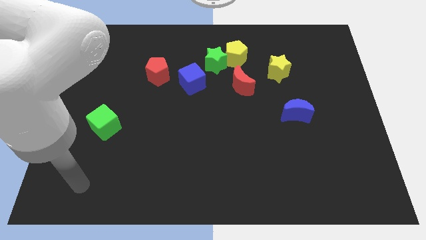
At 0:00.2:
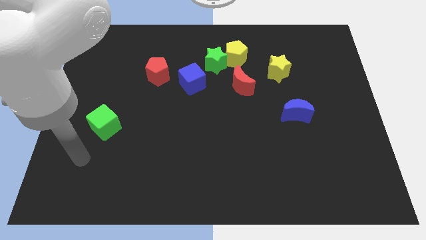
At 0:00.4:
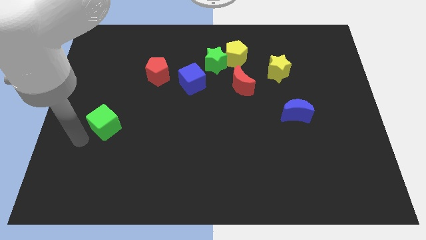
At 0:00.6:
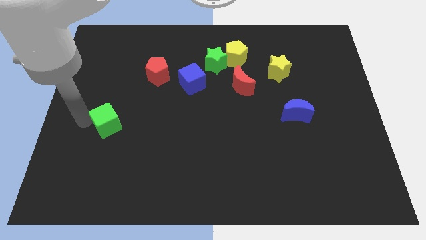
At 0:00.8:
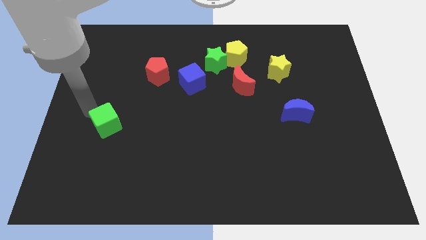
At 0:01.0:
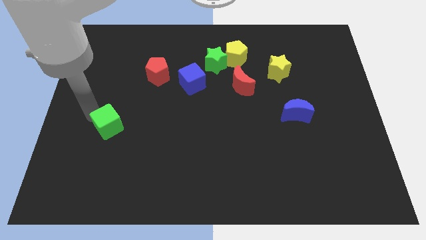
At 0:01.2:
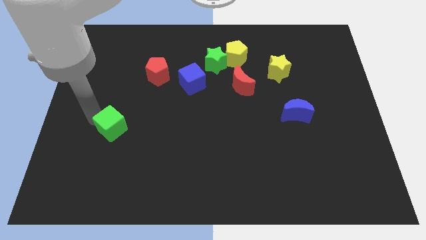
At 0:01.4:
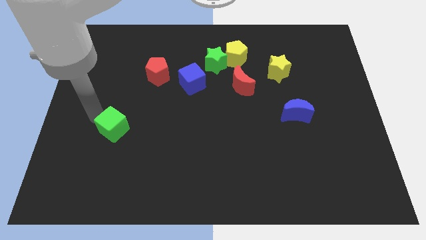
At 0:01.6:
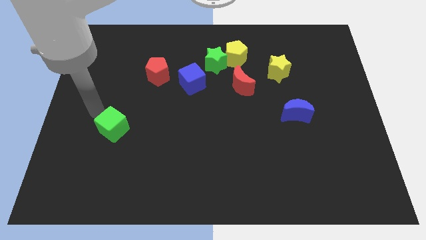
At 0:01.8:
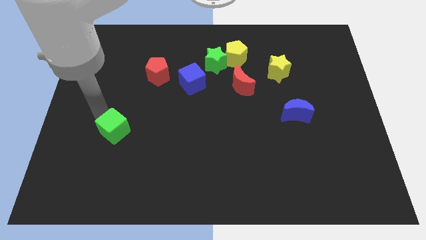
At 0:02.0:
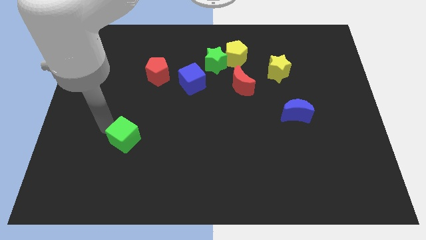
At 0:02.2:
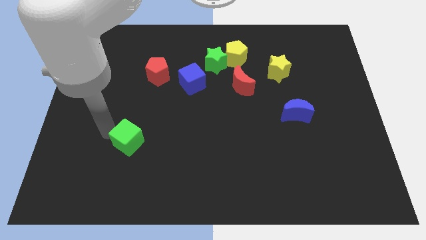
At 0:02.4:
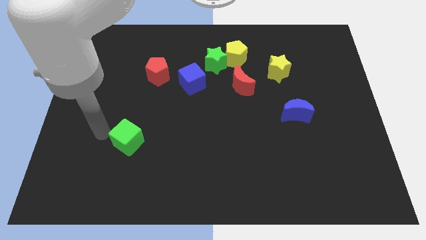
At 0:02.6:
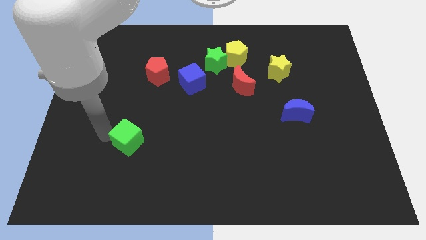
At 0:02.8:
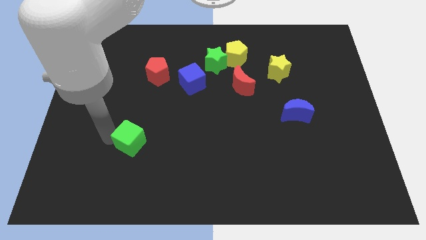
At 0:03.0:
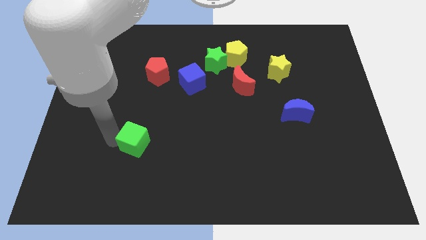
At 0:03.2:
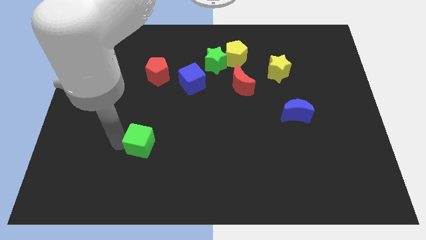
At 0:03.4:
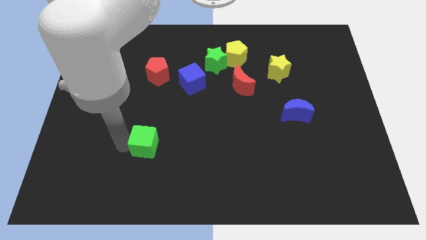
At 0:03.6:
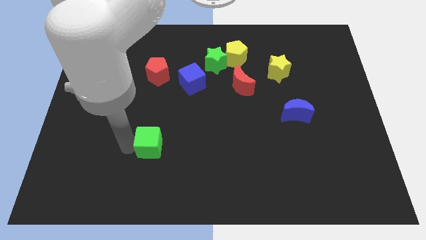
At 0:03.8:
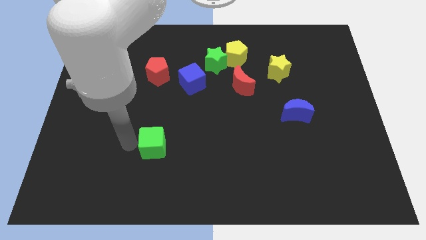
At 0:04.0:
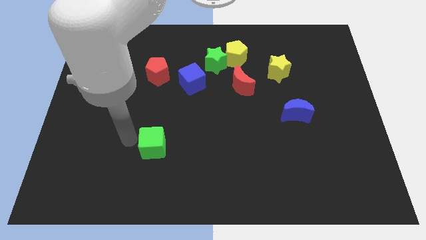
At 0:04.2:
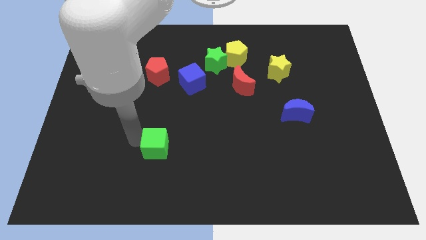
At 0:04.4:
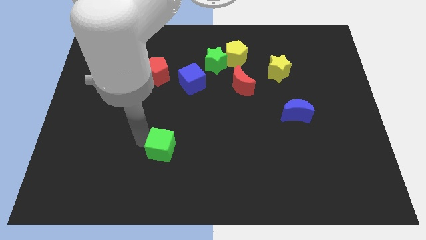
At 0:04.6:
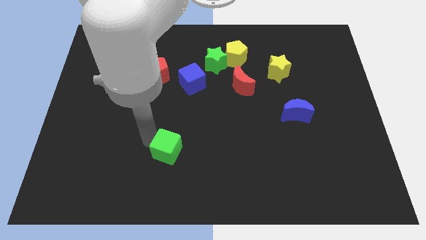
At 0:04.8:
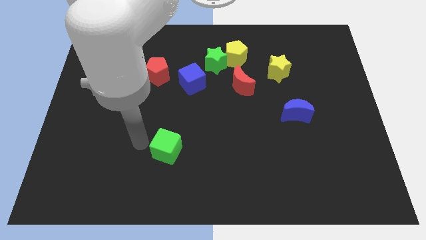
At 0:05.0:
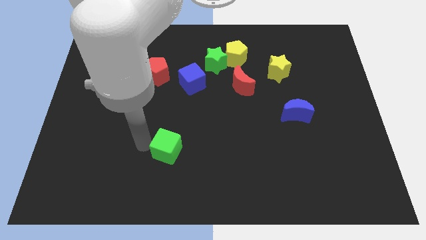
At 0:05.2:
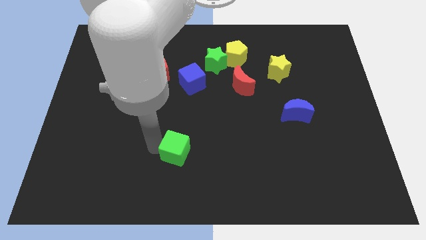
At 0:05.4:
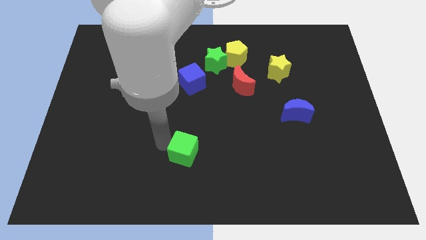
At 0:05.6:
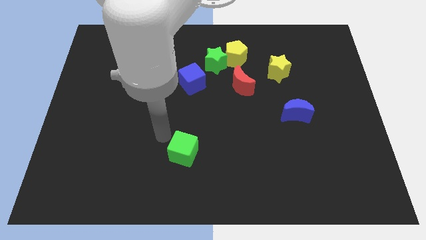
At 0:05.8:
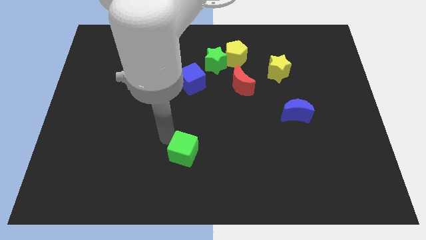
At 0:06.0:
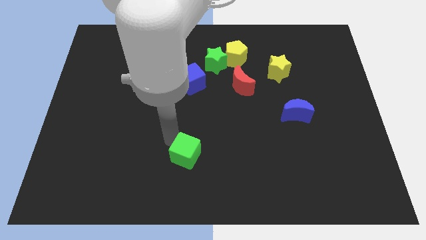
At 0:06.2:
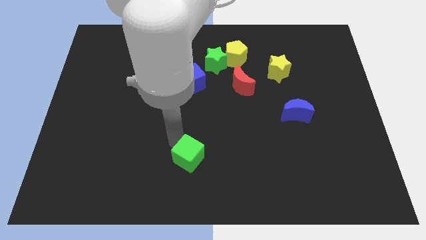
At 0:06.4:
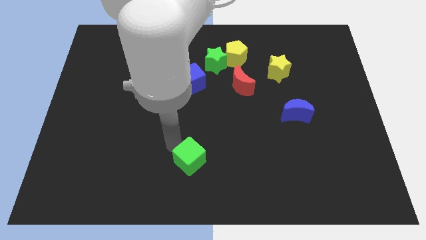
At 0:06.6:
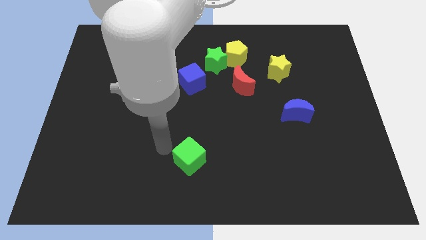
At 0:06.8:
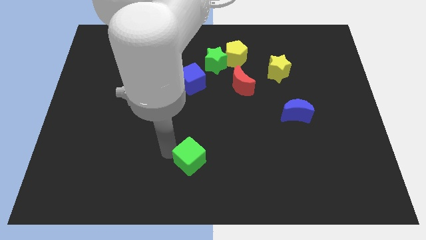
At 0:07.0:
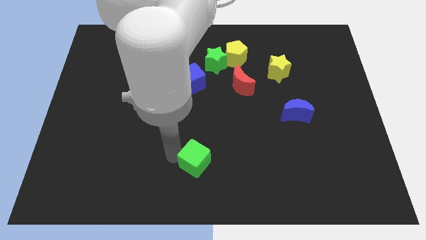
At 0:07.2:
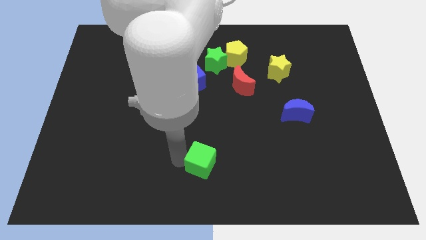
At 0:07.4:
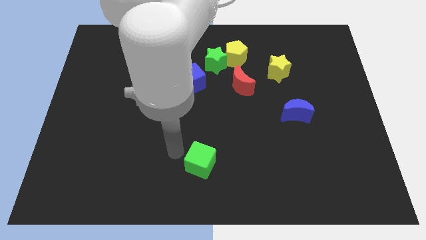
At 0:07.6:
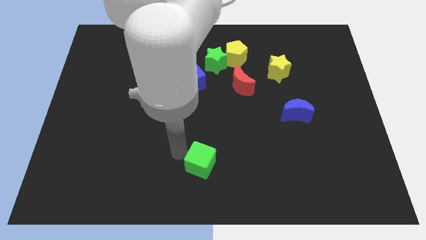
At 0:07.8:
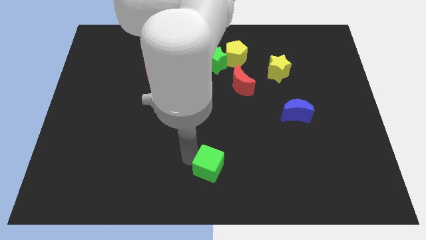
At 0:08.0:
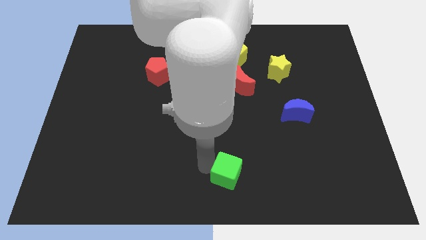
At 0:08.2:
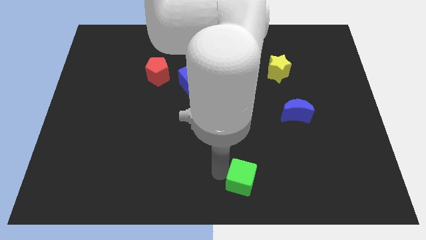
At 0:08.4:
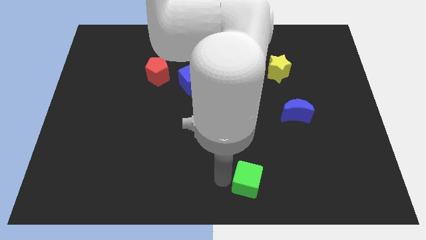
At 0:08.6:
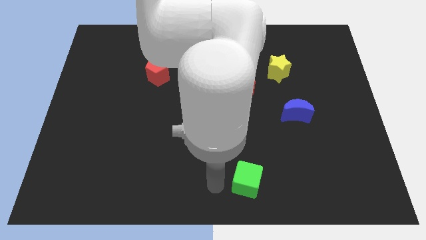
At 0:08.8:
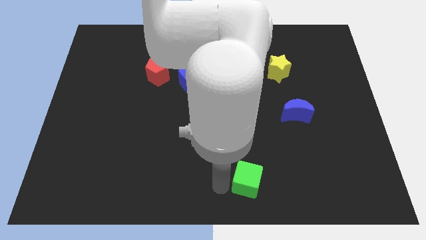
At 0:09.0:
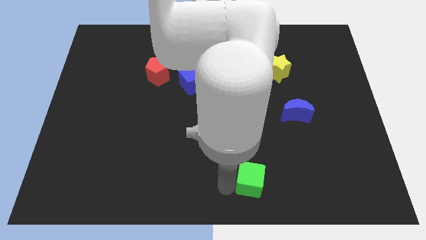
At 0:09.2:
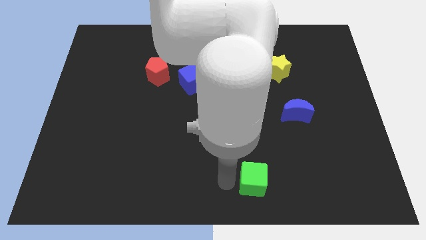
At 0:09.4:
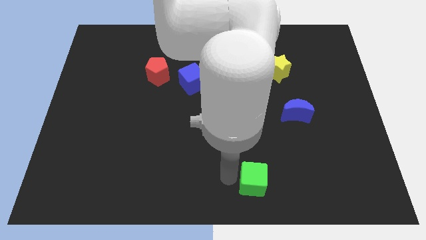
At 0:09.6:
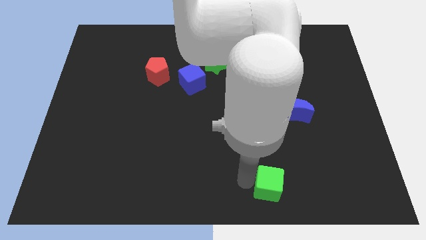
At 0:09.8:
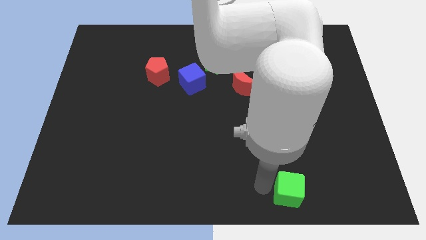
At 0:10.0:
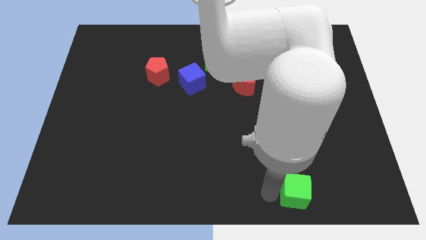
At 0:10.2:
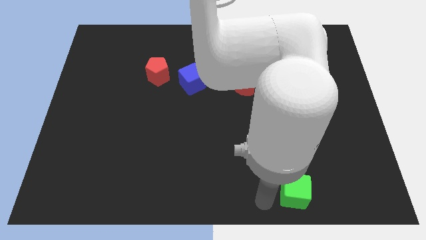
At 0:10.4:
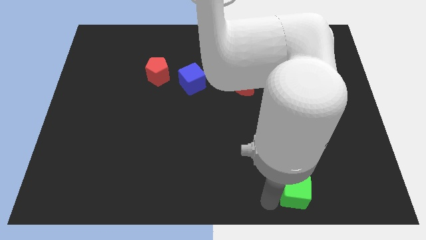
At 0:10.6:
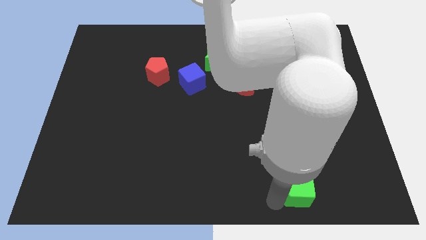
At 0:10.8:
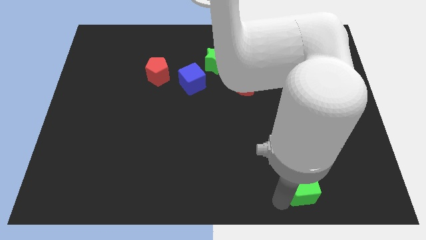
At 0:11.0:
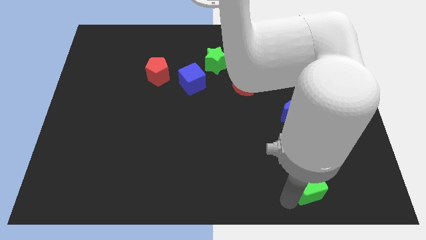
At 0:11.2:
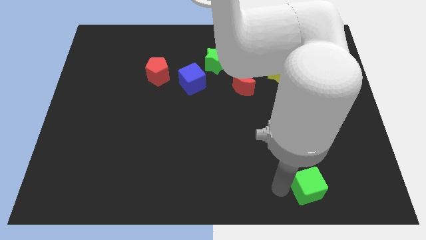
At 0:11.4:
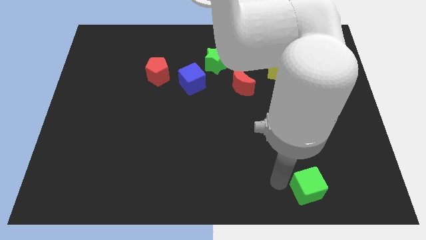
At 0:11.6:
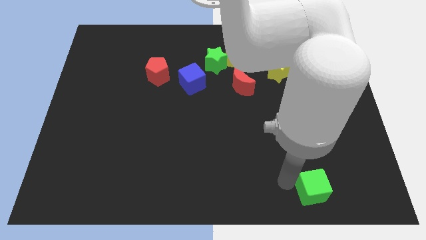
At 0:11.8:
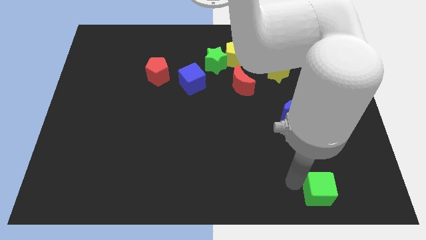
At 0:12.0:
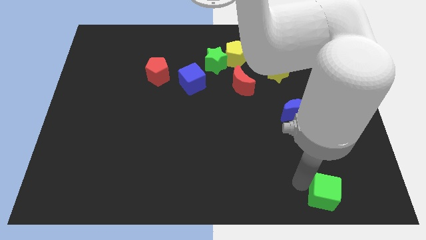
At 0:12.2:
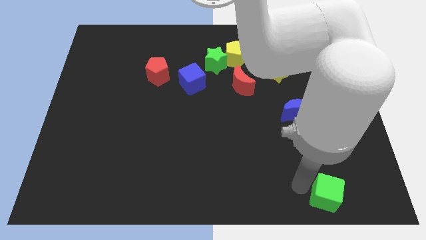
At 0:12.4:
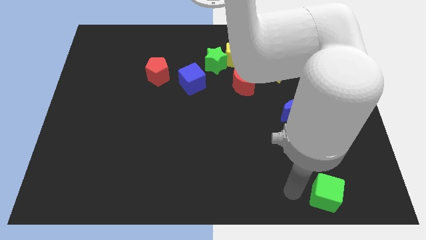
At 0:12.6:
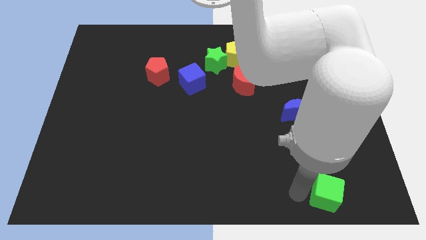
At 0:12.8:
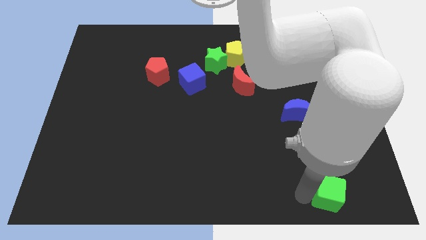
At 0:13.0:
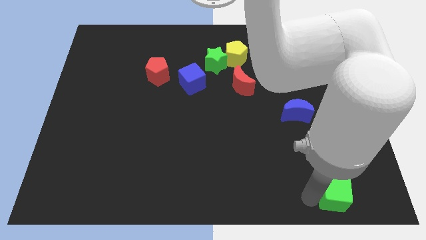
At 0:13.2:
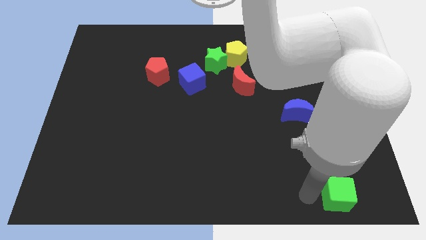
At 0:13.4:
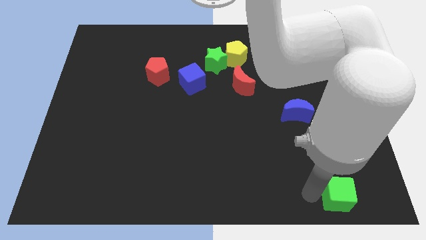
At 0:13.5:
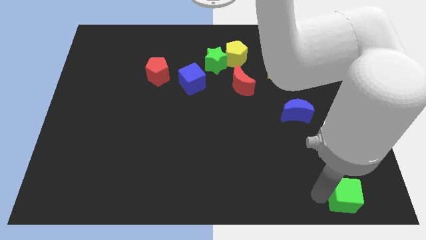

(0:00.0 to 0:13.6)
put the green cube to the bottom right

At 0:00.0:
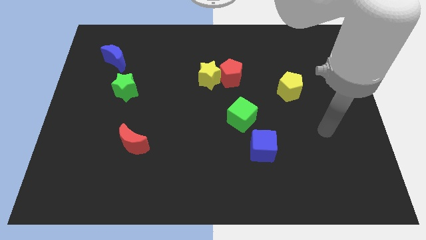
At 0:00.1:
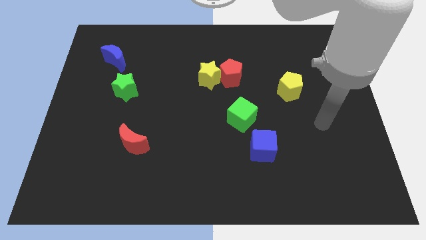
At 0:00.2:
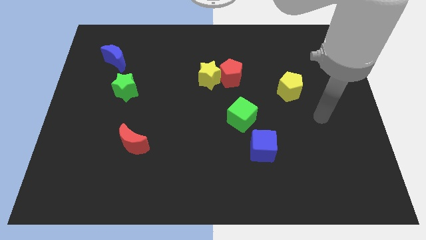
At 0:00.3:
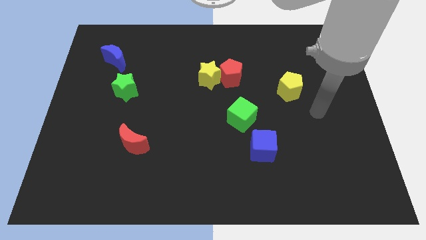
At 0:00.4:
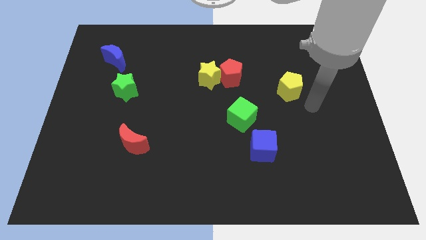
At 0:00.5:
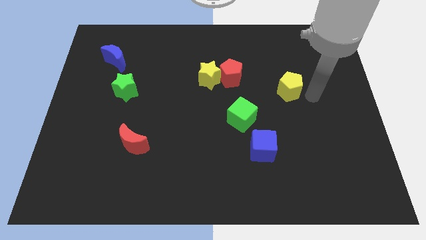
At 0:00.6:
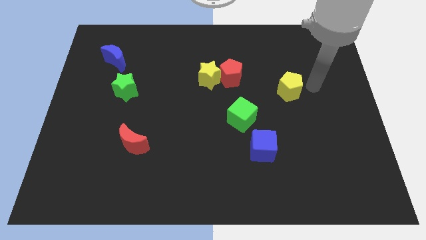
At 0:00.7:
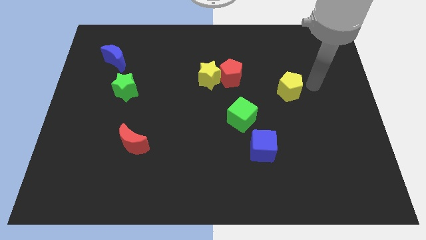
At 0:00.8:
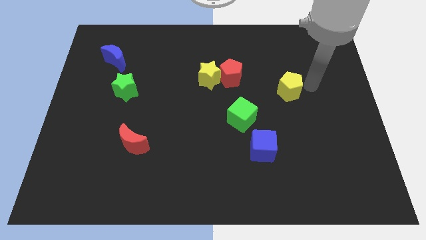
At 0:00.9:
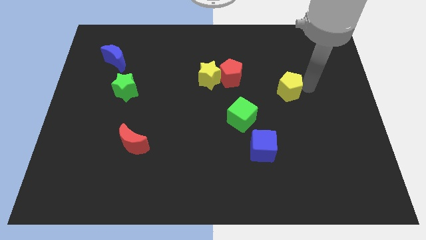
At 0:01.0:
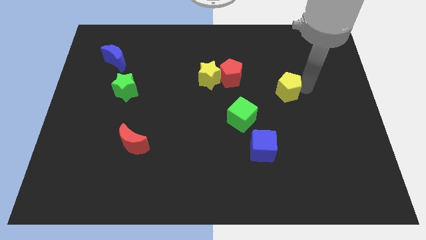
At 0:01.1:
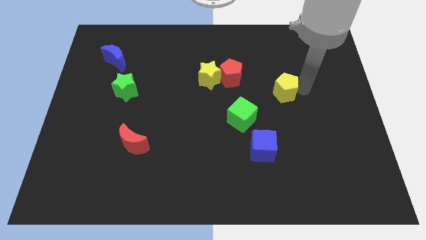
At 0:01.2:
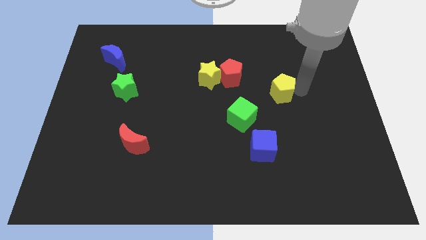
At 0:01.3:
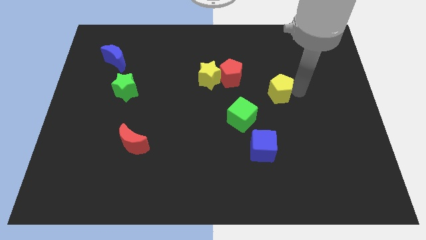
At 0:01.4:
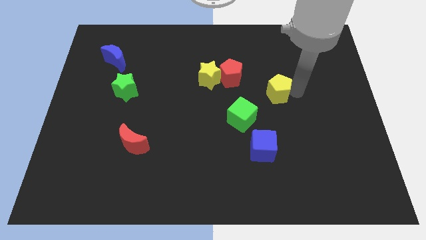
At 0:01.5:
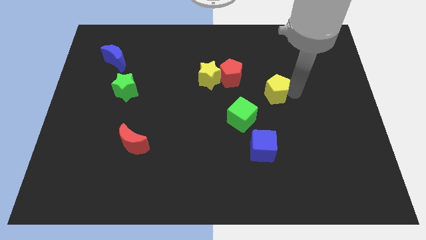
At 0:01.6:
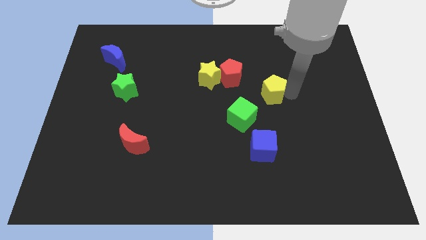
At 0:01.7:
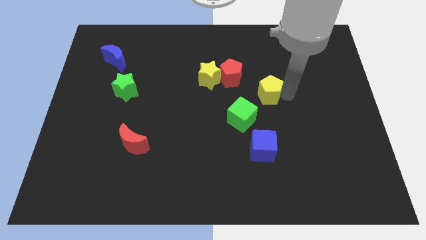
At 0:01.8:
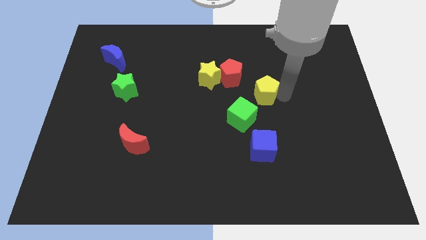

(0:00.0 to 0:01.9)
slide the yellow pentagon to the center
